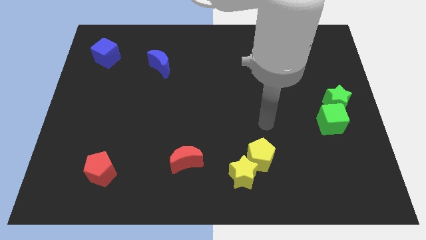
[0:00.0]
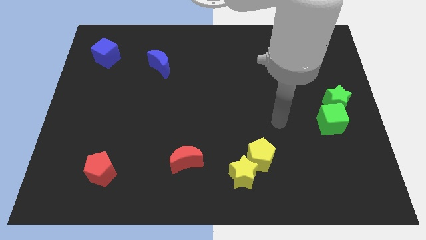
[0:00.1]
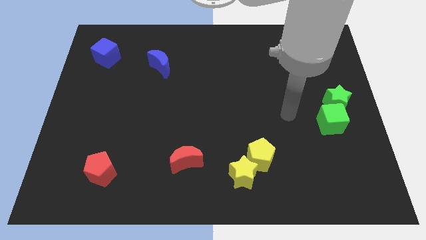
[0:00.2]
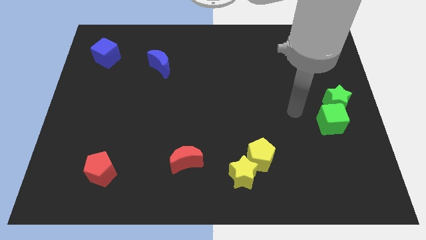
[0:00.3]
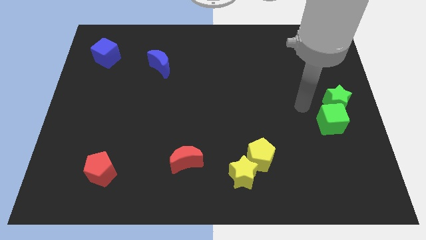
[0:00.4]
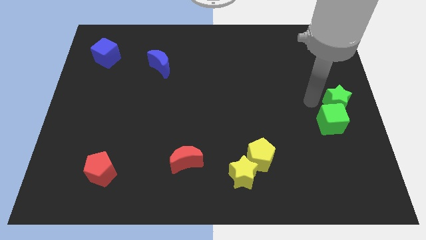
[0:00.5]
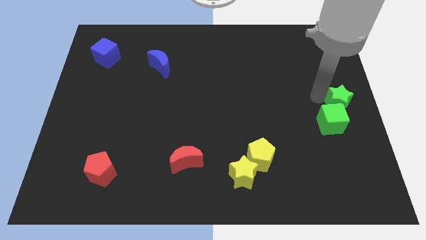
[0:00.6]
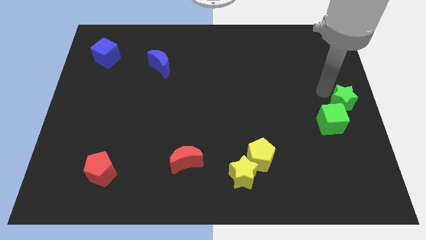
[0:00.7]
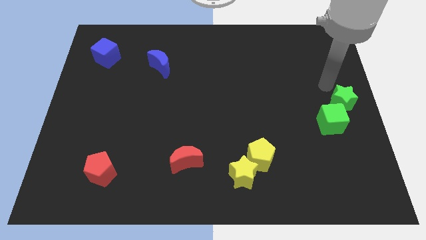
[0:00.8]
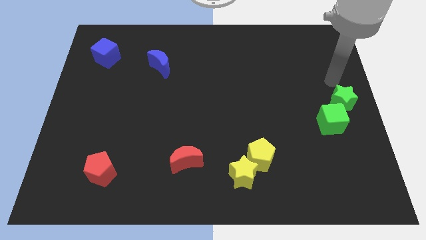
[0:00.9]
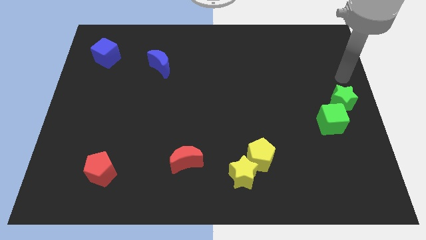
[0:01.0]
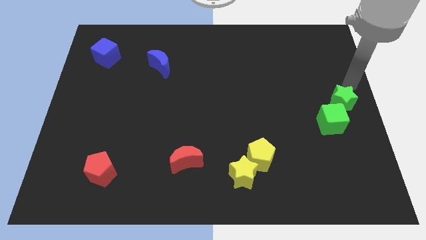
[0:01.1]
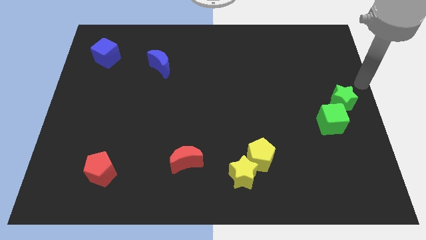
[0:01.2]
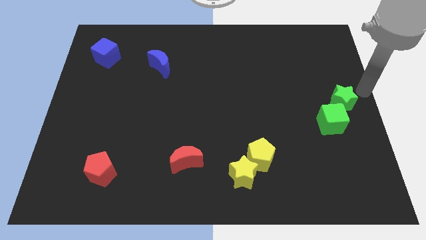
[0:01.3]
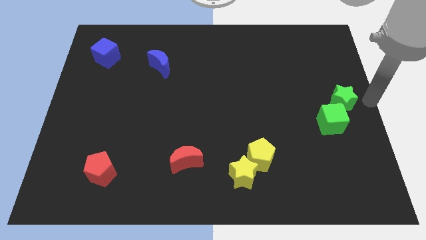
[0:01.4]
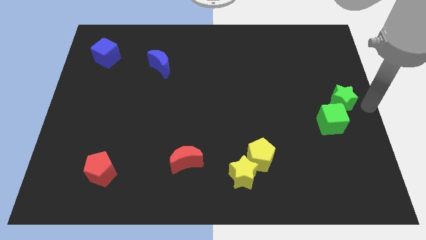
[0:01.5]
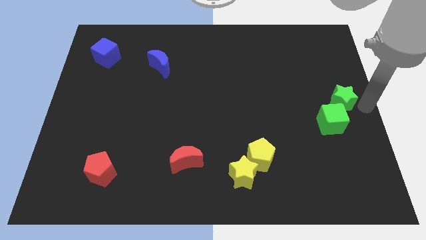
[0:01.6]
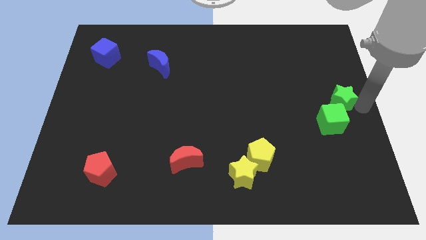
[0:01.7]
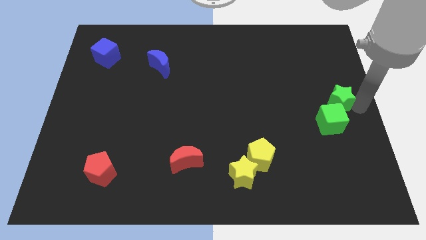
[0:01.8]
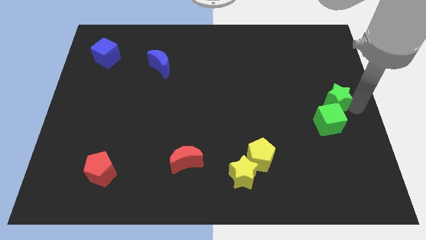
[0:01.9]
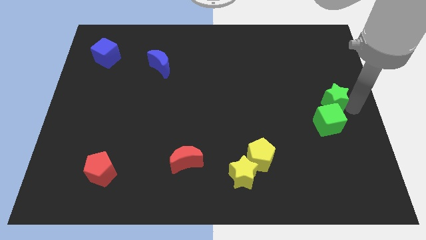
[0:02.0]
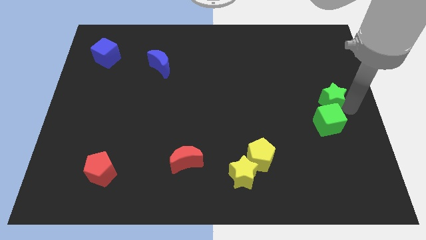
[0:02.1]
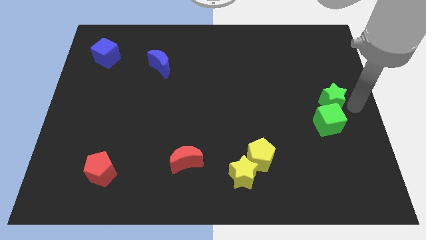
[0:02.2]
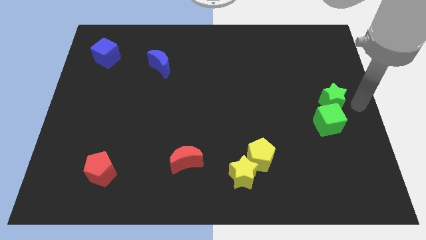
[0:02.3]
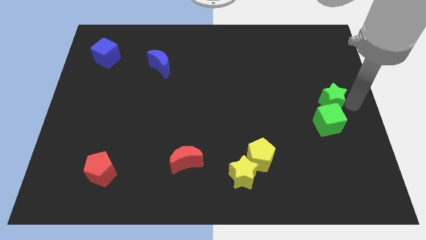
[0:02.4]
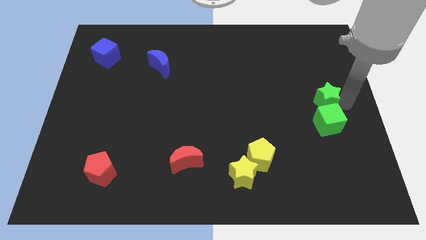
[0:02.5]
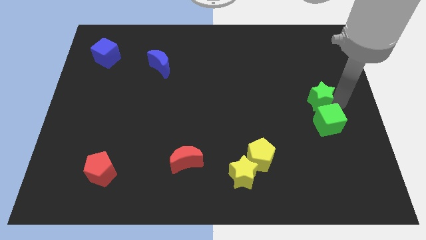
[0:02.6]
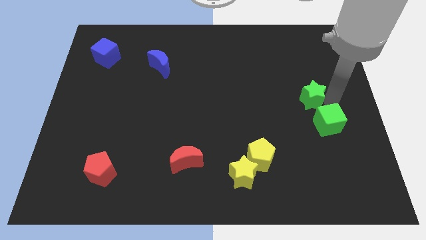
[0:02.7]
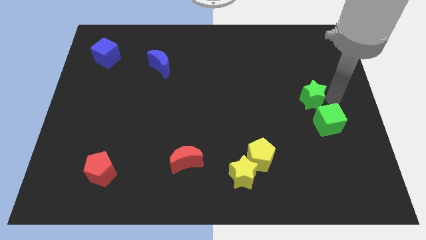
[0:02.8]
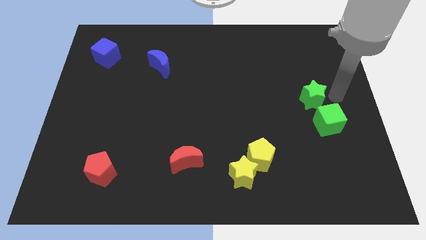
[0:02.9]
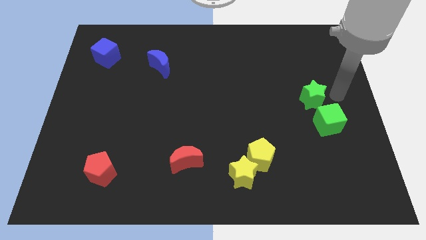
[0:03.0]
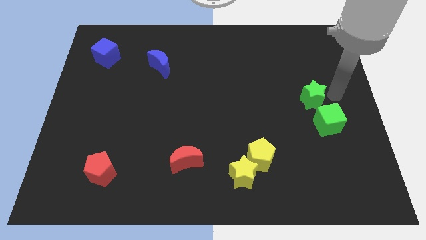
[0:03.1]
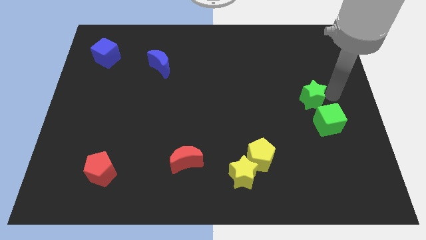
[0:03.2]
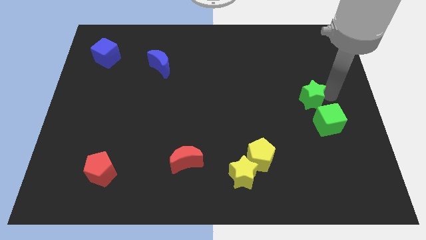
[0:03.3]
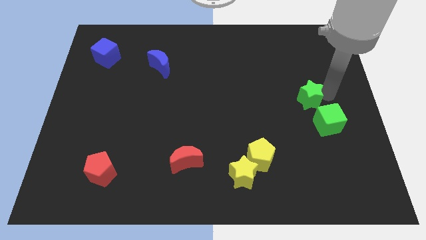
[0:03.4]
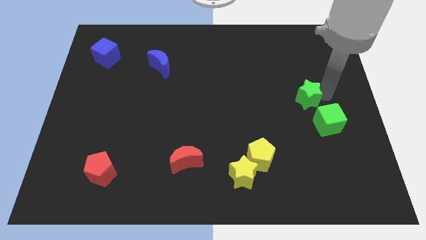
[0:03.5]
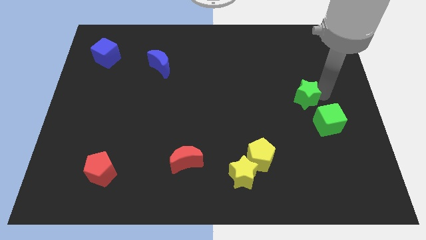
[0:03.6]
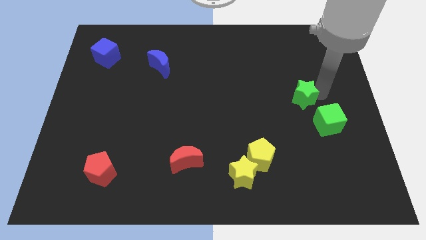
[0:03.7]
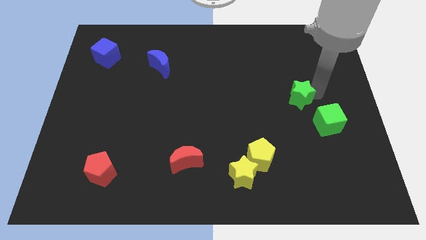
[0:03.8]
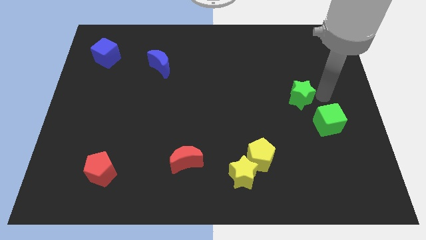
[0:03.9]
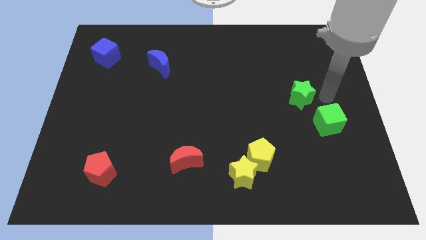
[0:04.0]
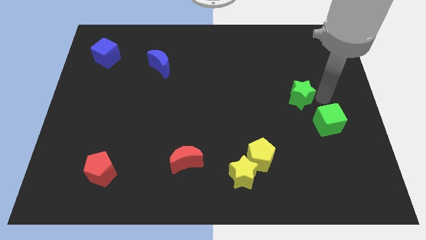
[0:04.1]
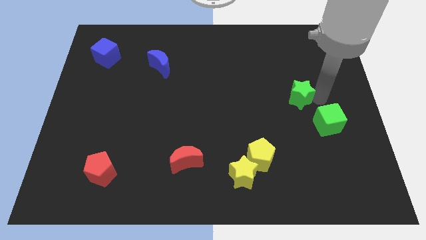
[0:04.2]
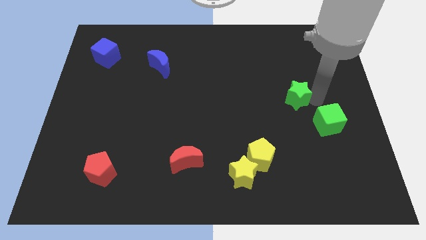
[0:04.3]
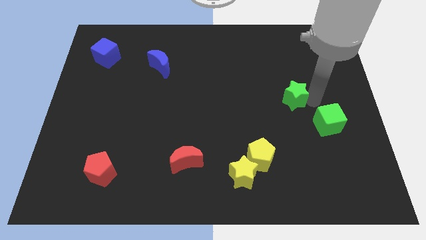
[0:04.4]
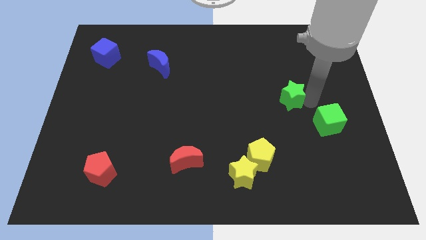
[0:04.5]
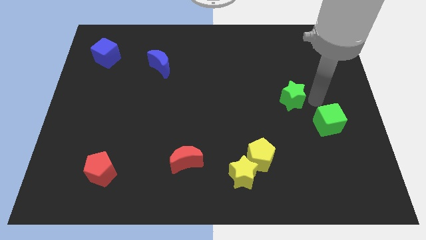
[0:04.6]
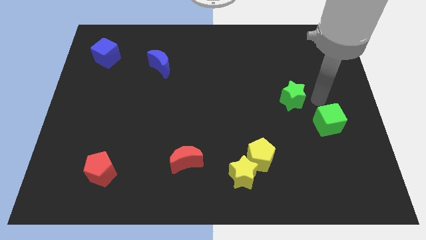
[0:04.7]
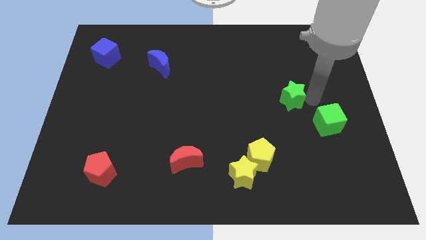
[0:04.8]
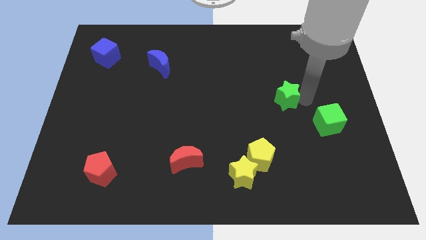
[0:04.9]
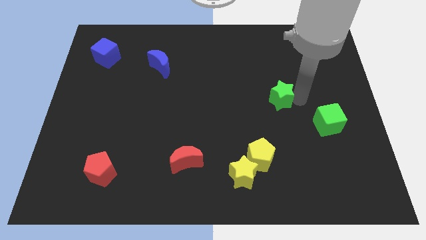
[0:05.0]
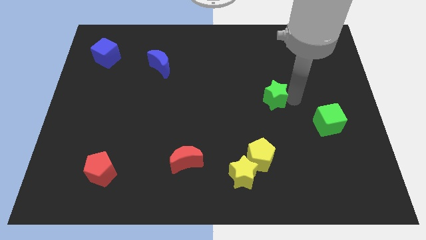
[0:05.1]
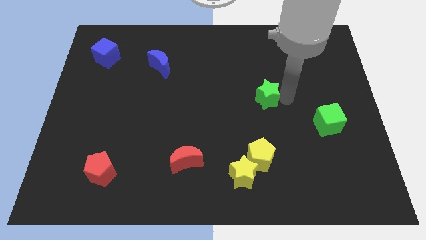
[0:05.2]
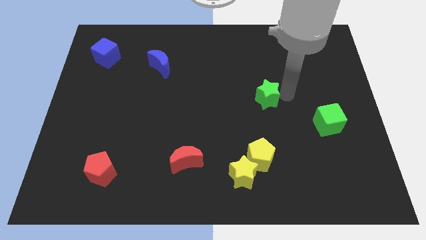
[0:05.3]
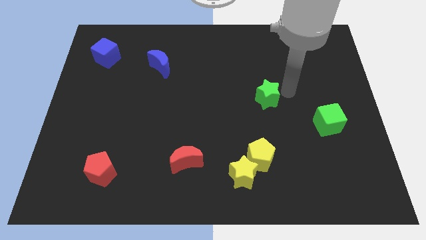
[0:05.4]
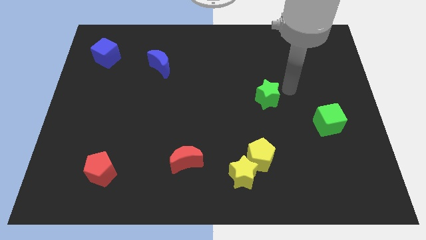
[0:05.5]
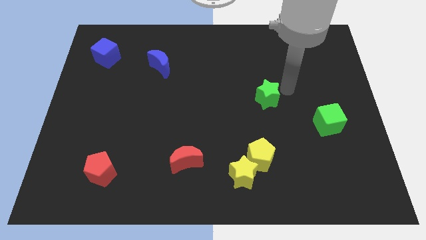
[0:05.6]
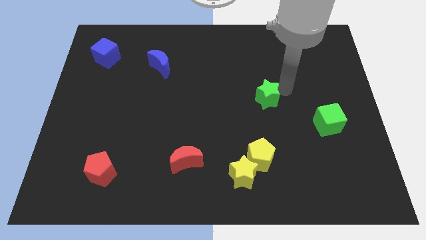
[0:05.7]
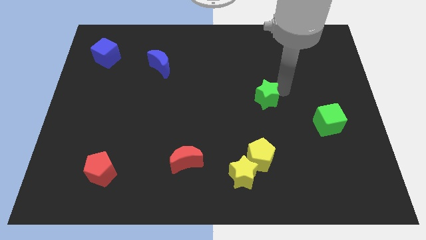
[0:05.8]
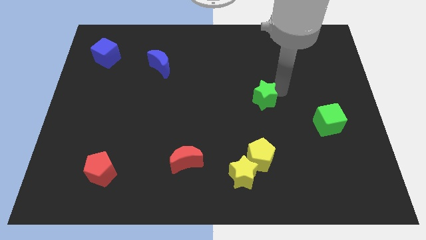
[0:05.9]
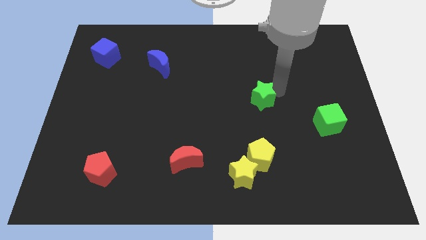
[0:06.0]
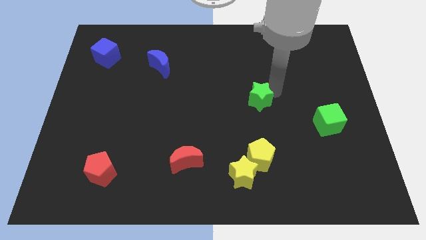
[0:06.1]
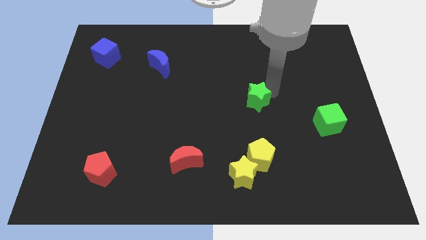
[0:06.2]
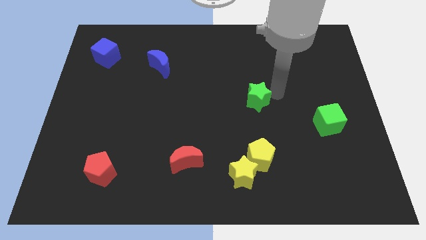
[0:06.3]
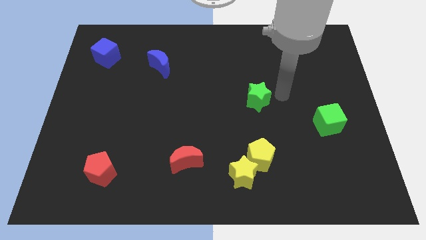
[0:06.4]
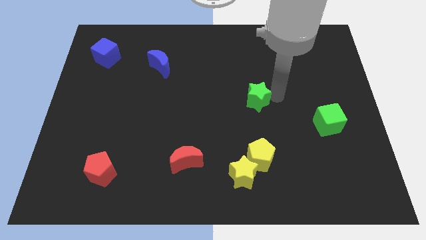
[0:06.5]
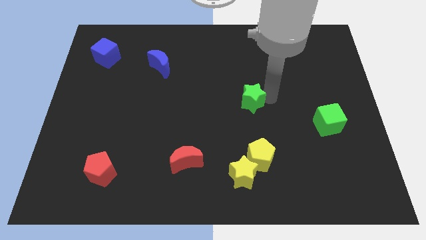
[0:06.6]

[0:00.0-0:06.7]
push the green star to the left

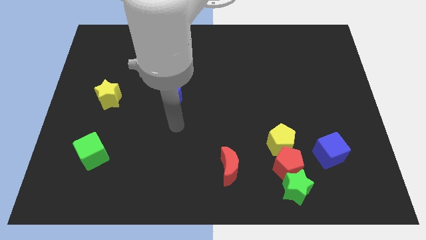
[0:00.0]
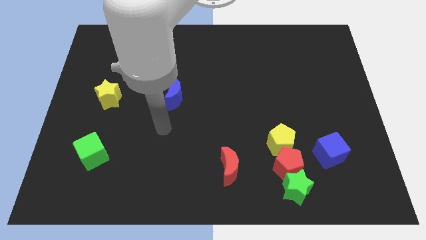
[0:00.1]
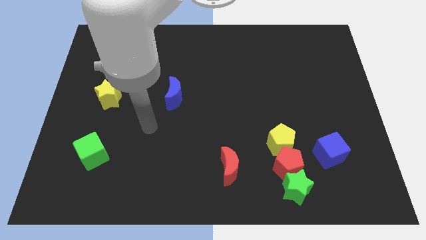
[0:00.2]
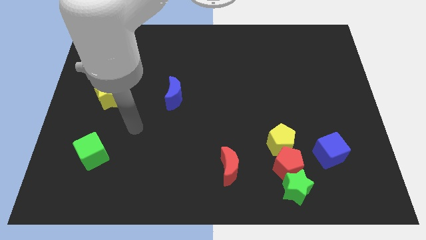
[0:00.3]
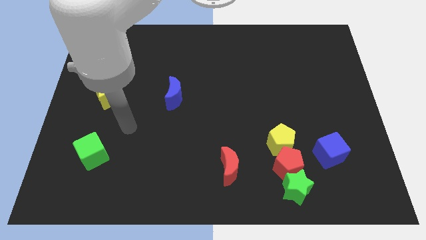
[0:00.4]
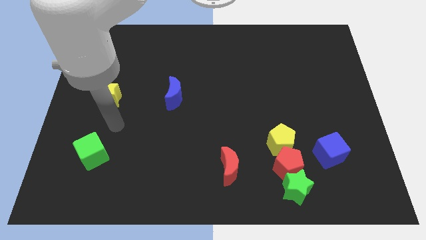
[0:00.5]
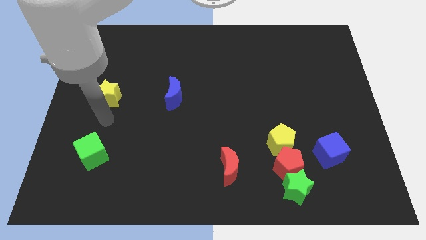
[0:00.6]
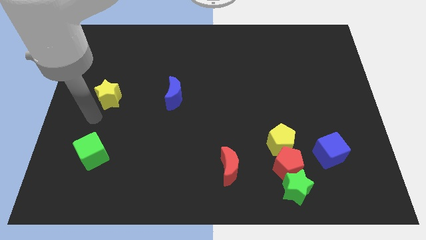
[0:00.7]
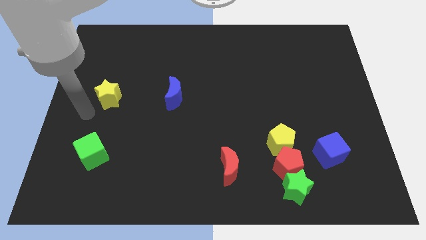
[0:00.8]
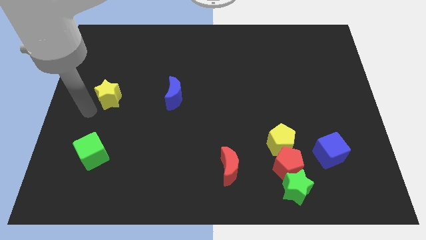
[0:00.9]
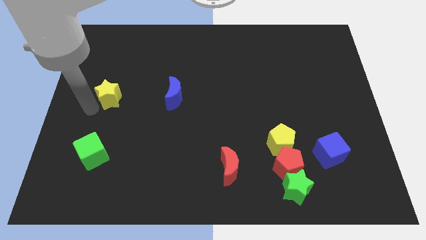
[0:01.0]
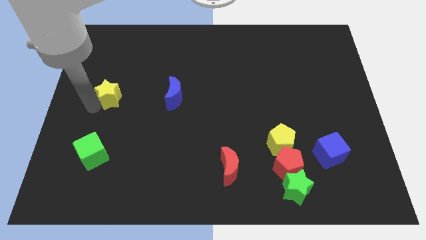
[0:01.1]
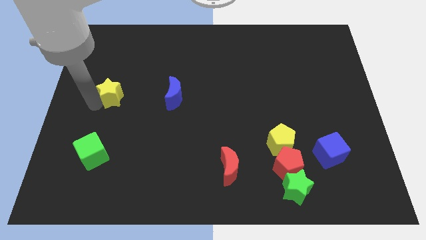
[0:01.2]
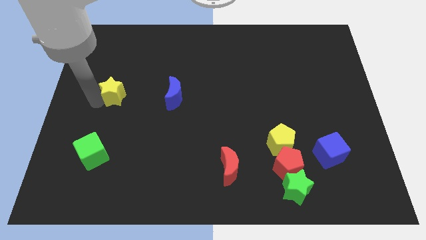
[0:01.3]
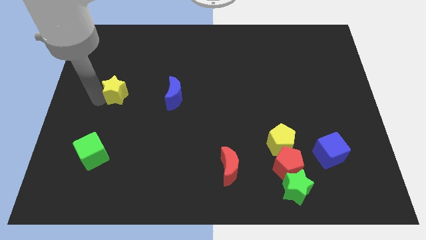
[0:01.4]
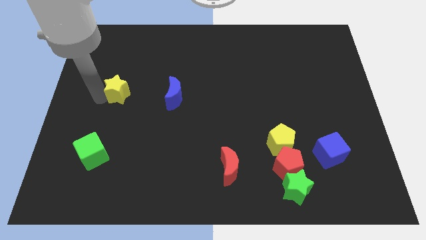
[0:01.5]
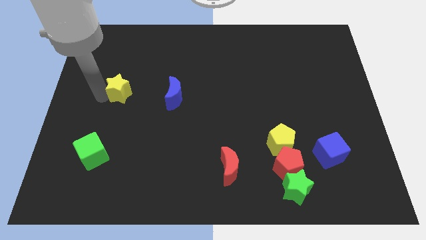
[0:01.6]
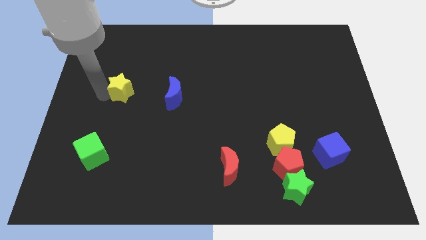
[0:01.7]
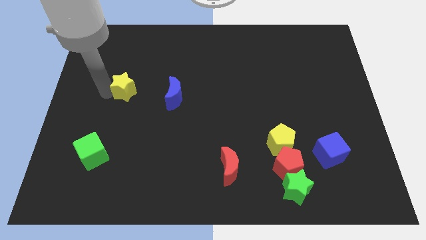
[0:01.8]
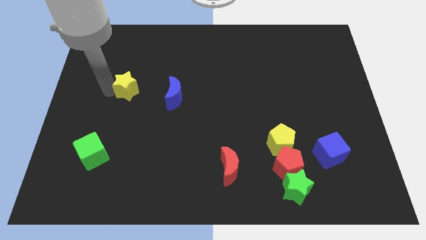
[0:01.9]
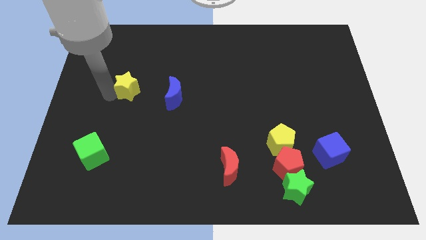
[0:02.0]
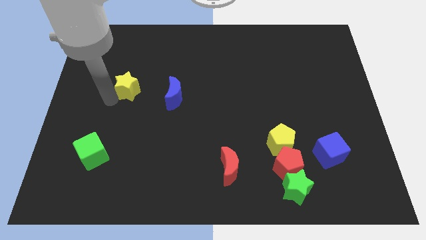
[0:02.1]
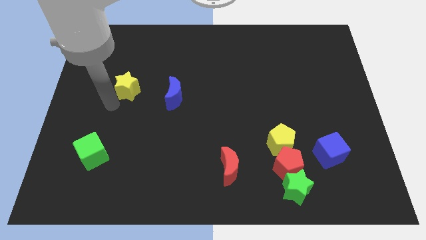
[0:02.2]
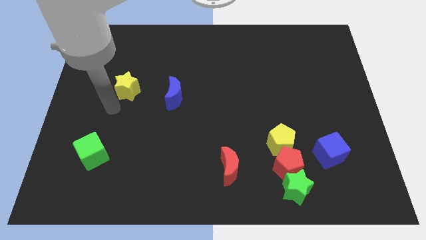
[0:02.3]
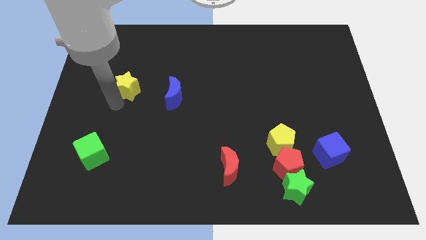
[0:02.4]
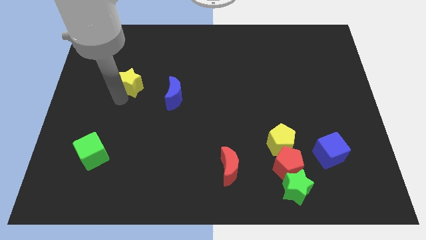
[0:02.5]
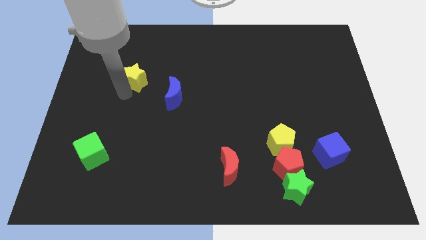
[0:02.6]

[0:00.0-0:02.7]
slide the yellow star diagonally up and right a bit
